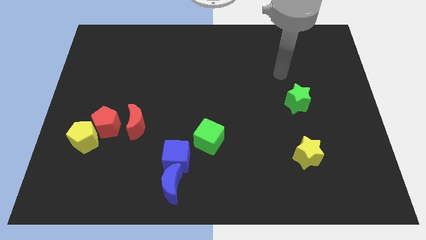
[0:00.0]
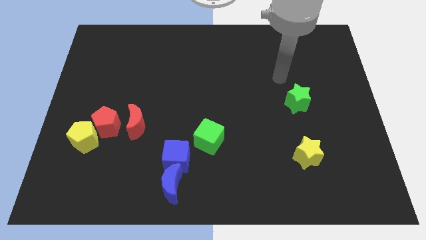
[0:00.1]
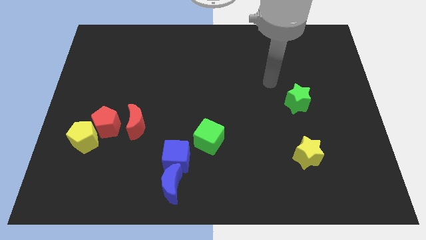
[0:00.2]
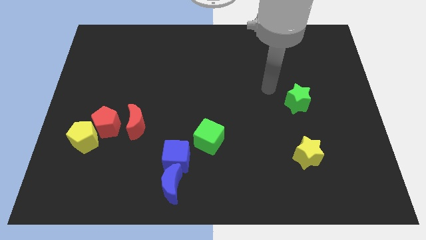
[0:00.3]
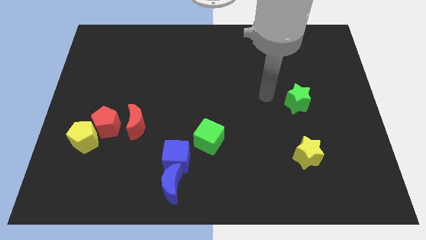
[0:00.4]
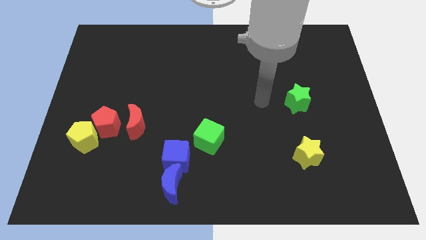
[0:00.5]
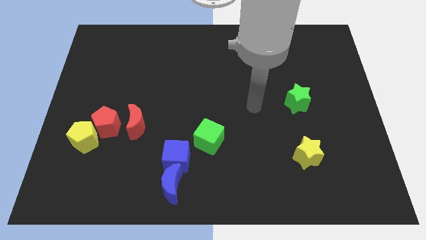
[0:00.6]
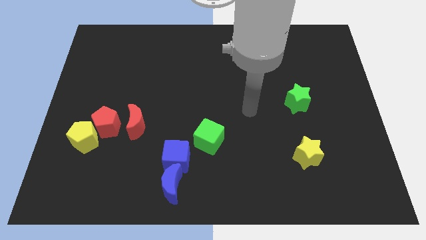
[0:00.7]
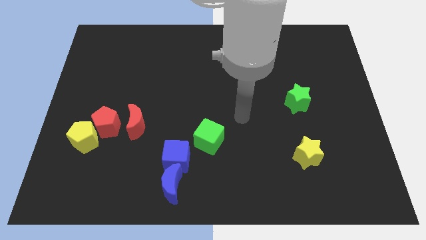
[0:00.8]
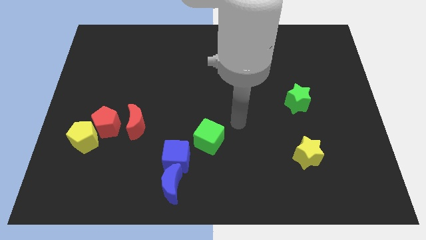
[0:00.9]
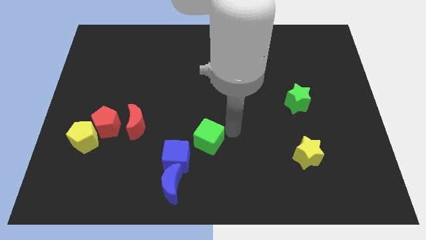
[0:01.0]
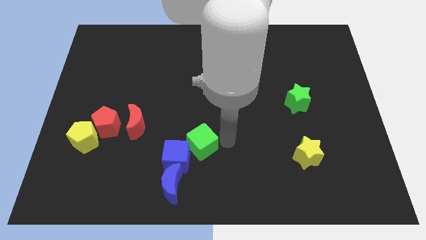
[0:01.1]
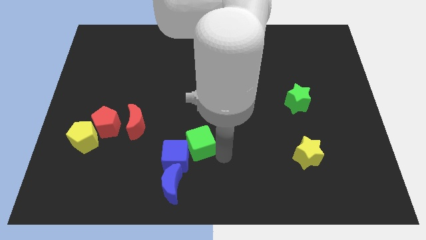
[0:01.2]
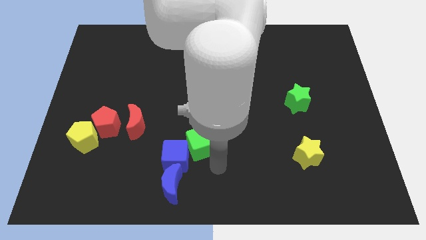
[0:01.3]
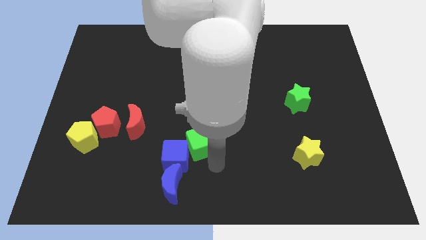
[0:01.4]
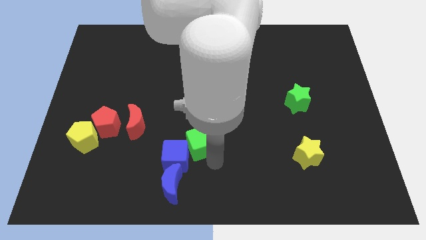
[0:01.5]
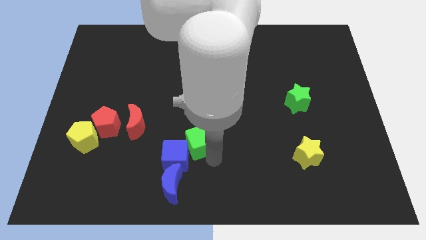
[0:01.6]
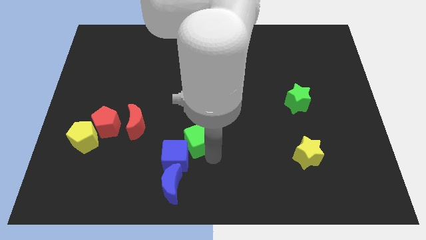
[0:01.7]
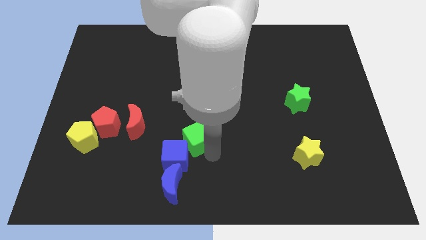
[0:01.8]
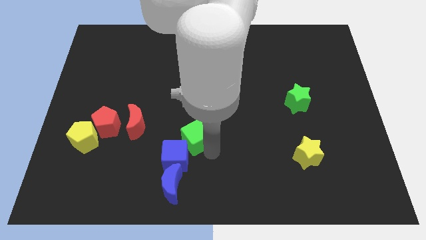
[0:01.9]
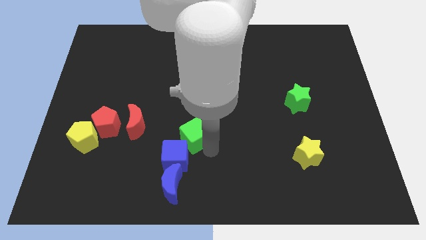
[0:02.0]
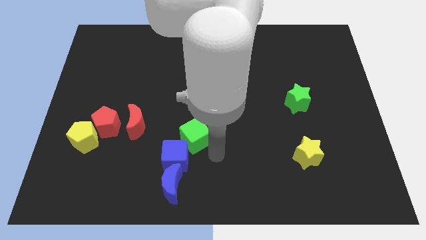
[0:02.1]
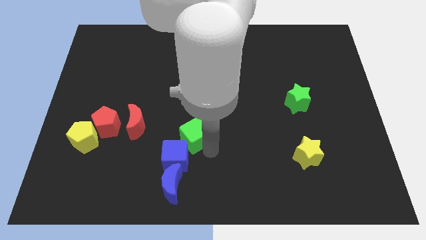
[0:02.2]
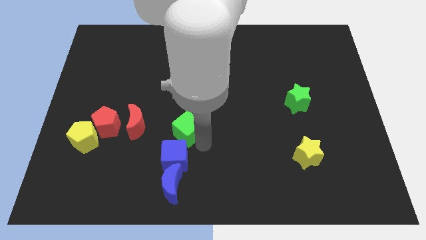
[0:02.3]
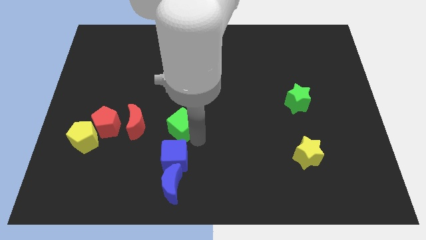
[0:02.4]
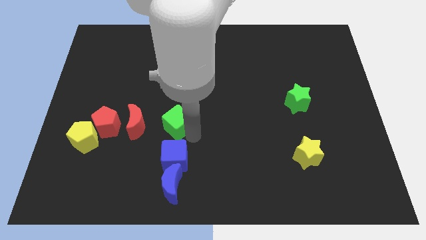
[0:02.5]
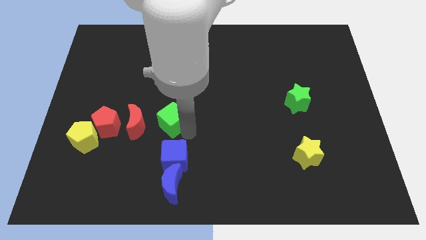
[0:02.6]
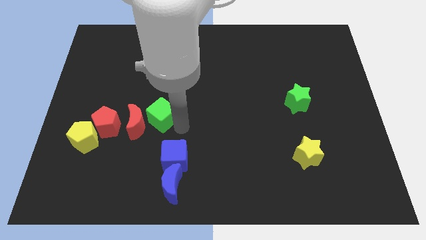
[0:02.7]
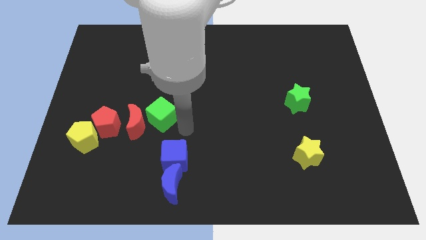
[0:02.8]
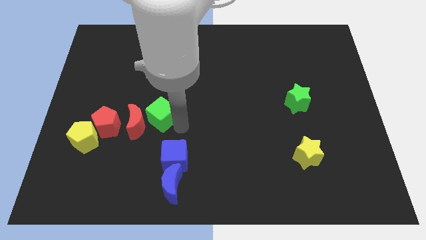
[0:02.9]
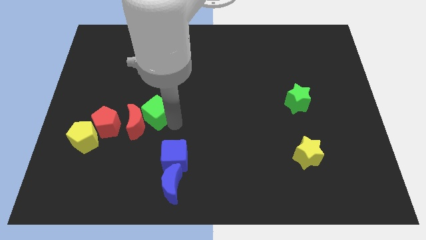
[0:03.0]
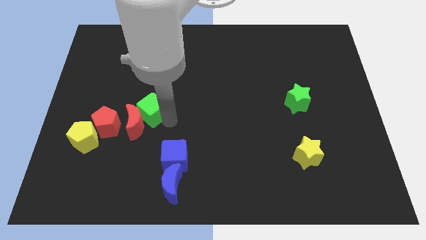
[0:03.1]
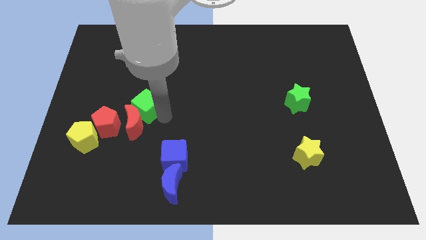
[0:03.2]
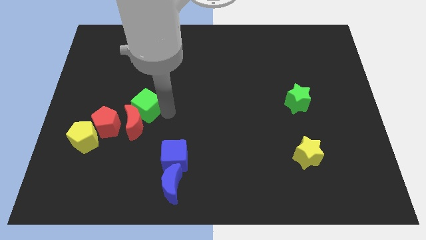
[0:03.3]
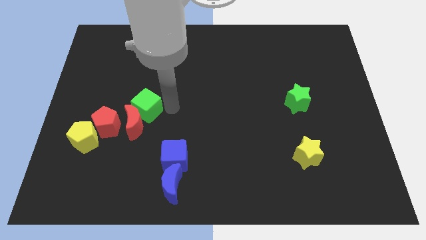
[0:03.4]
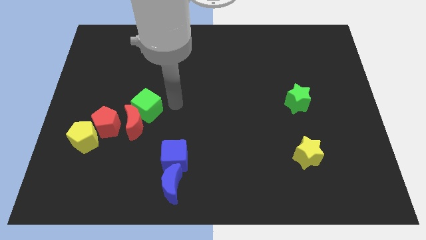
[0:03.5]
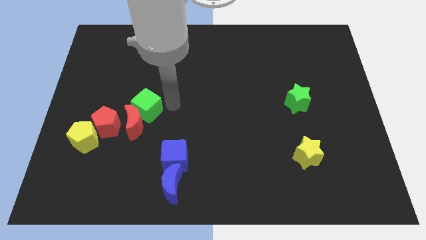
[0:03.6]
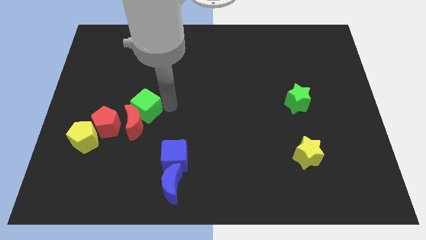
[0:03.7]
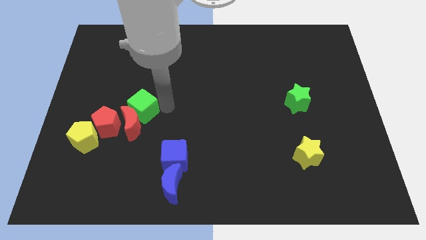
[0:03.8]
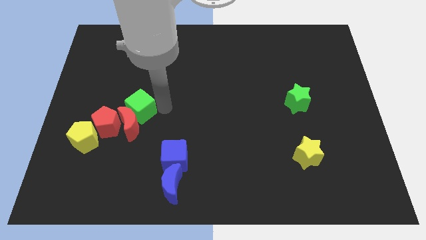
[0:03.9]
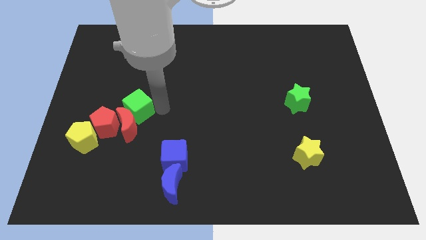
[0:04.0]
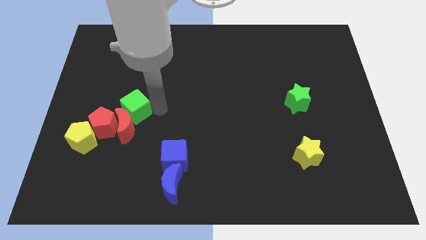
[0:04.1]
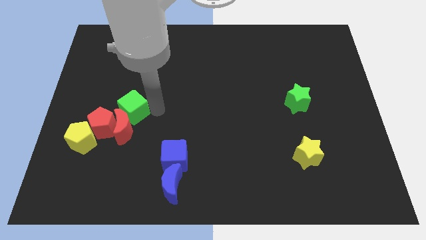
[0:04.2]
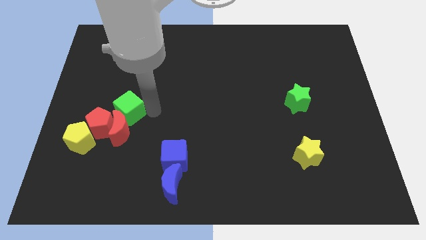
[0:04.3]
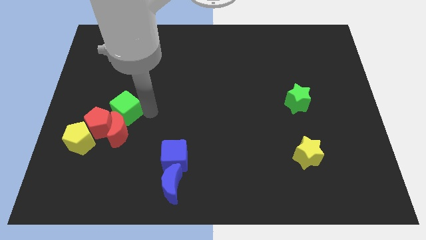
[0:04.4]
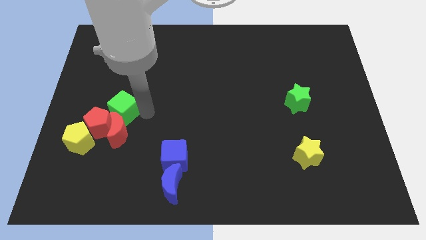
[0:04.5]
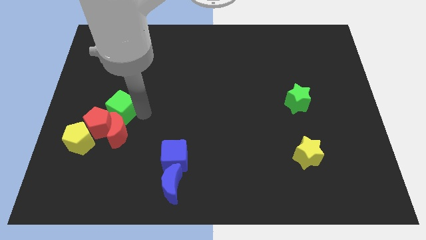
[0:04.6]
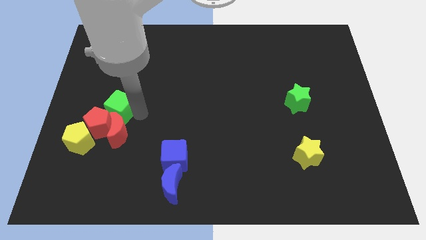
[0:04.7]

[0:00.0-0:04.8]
slide the green cube towards the red pentagon

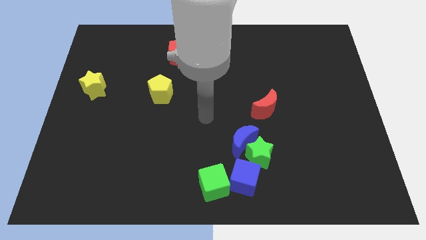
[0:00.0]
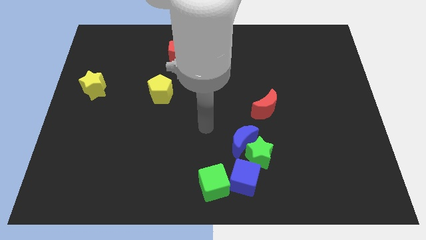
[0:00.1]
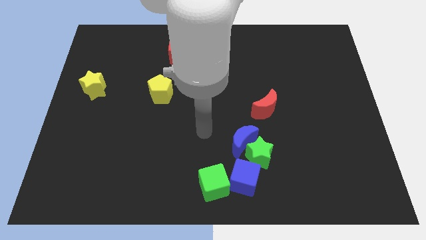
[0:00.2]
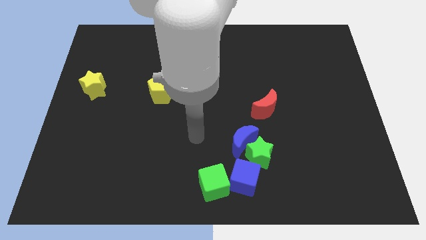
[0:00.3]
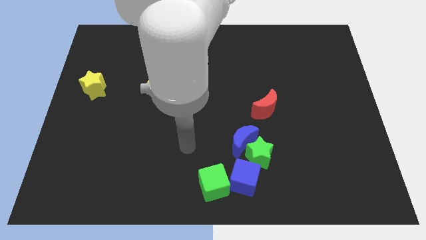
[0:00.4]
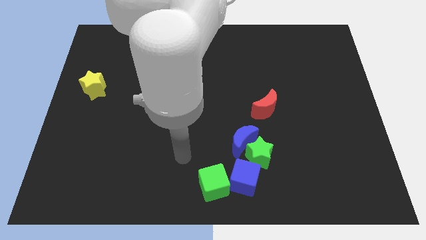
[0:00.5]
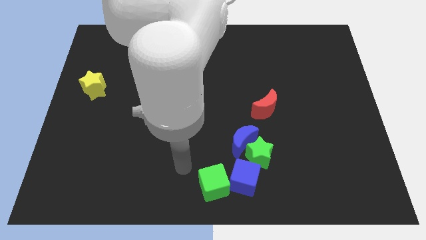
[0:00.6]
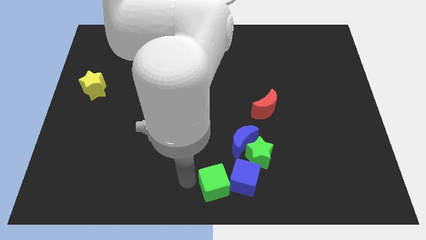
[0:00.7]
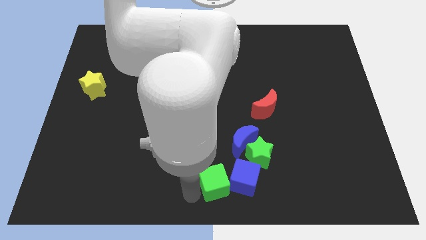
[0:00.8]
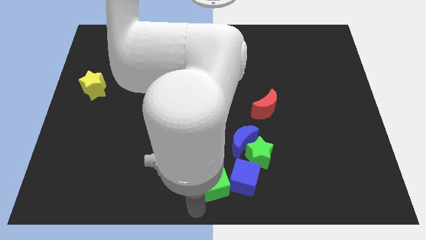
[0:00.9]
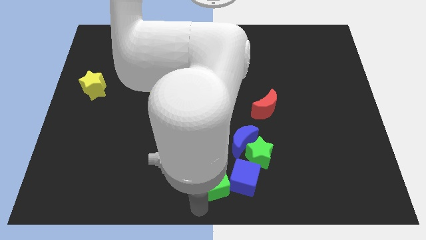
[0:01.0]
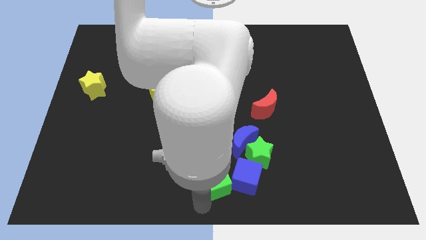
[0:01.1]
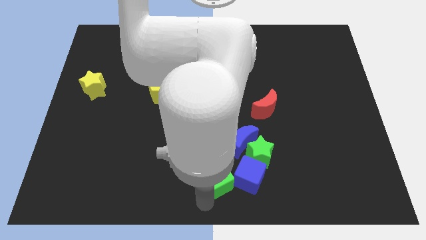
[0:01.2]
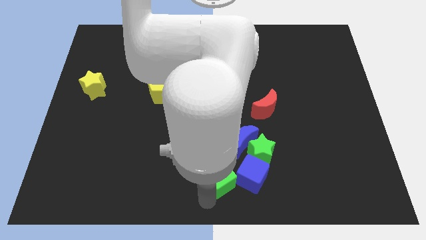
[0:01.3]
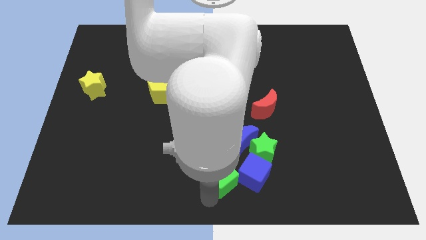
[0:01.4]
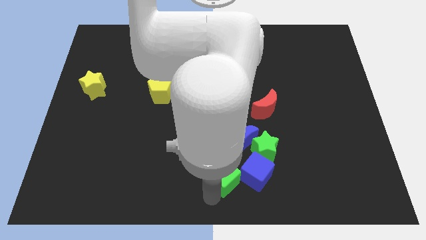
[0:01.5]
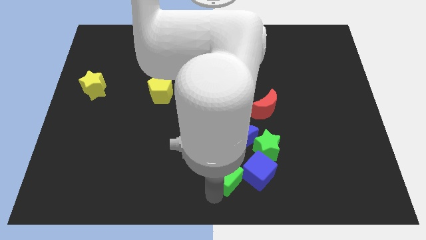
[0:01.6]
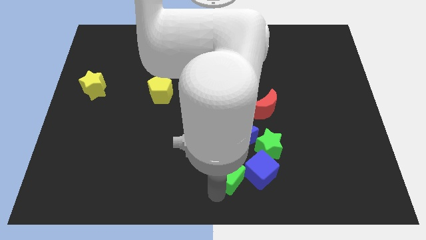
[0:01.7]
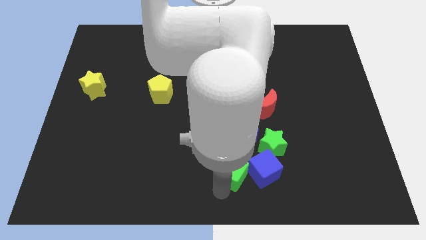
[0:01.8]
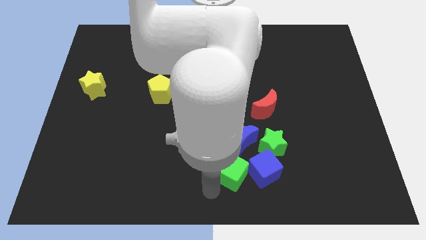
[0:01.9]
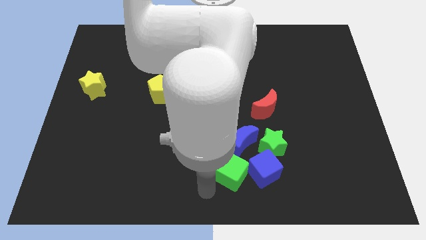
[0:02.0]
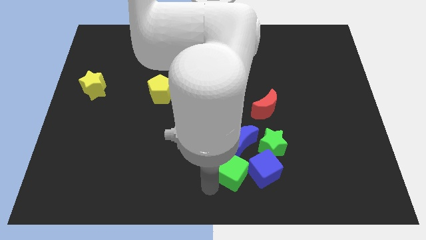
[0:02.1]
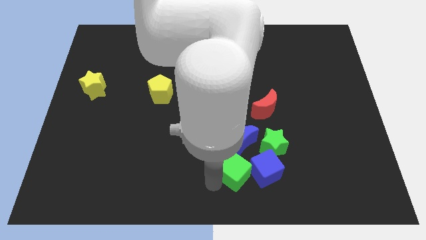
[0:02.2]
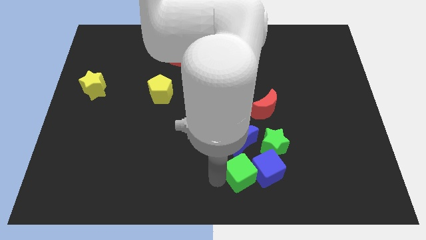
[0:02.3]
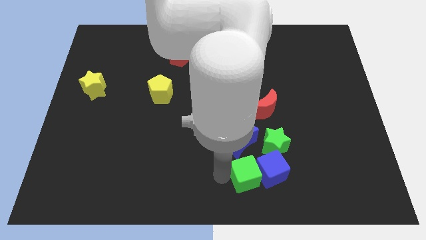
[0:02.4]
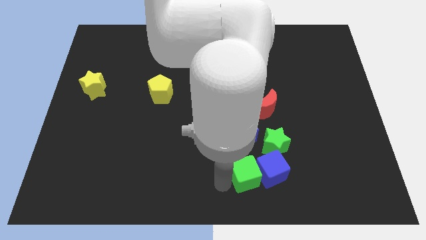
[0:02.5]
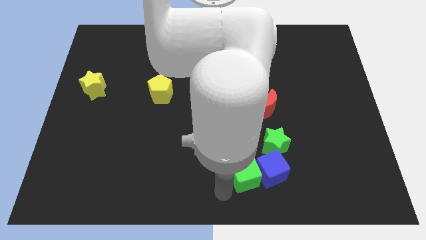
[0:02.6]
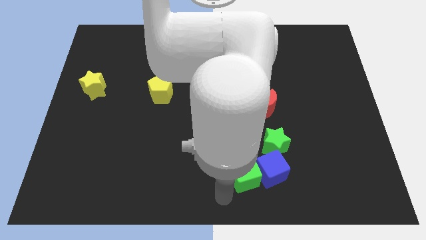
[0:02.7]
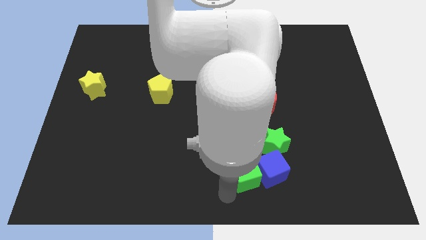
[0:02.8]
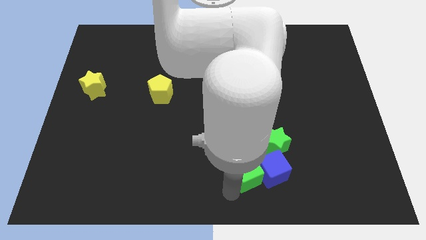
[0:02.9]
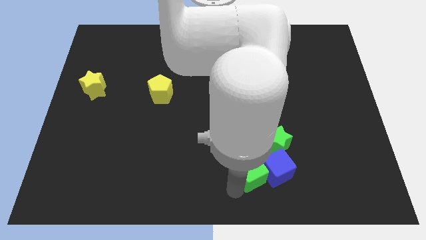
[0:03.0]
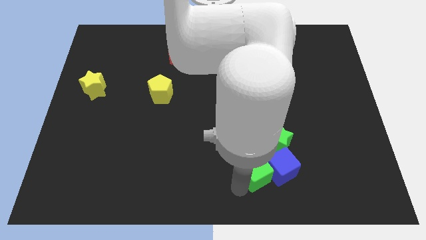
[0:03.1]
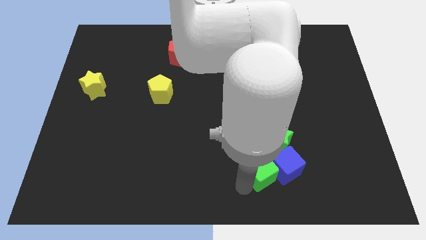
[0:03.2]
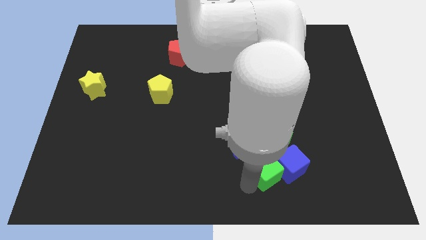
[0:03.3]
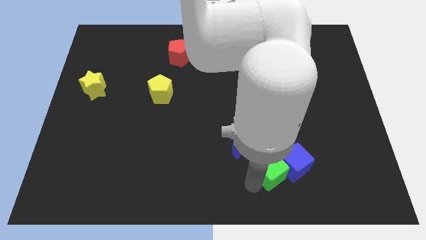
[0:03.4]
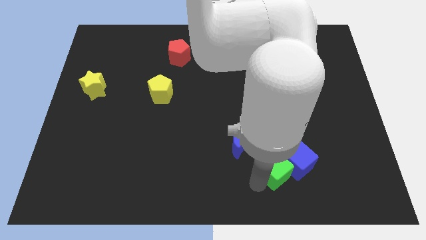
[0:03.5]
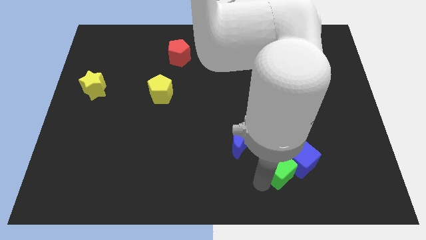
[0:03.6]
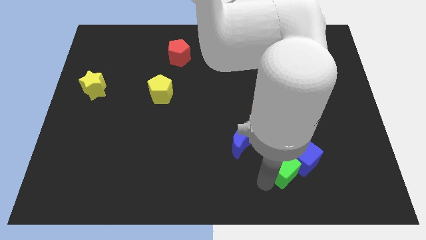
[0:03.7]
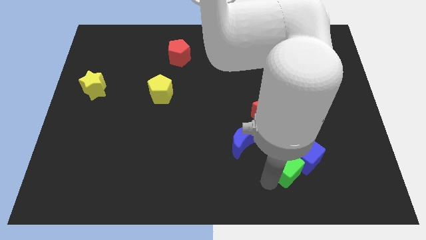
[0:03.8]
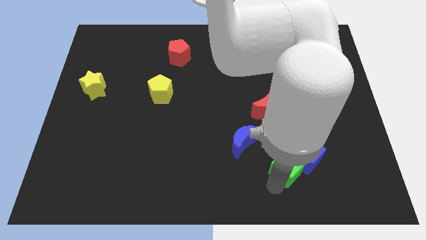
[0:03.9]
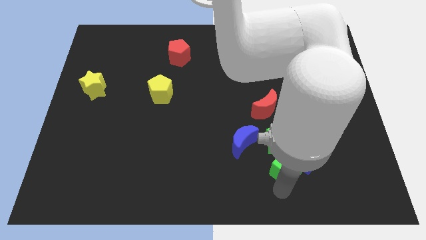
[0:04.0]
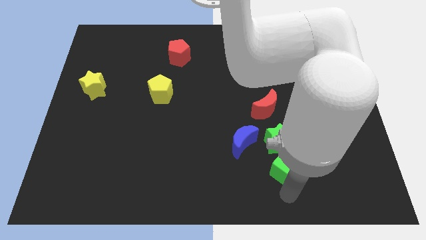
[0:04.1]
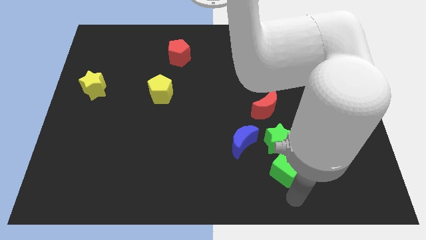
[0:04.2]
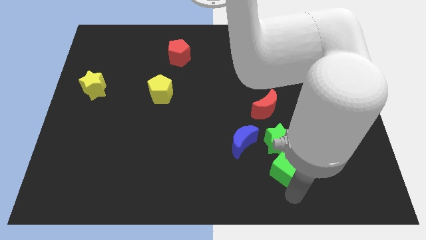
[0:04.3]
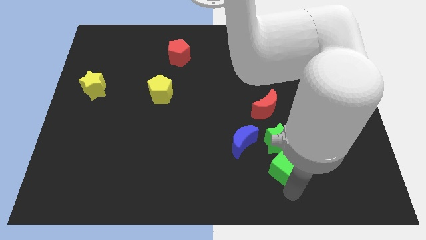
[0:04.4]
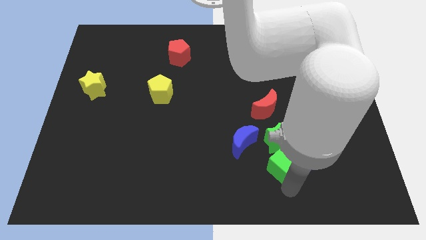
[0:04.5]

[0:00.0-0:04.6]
push the green cube close to the green star
